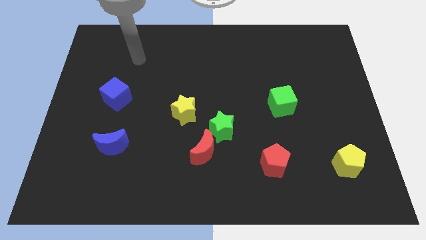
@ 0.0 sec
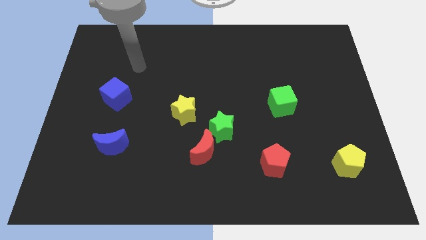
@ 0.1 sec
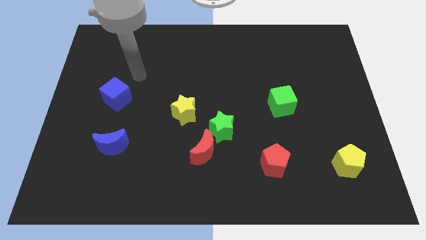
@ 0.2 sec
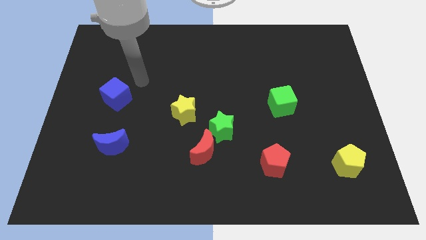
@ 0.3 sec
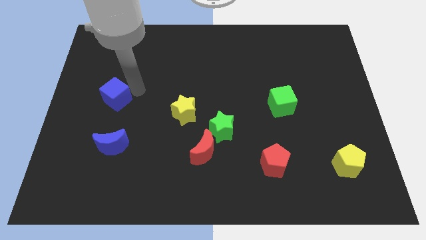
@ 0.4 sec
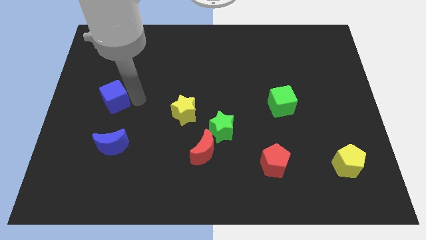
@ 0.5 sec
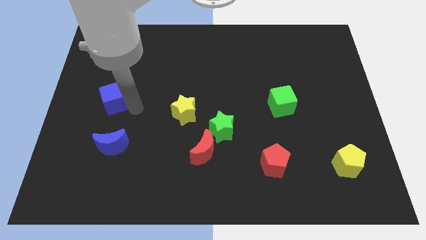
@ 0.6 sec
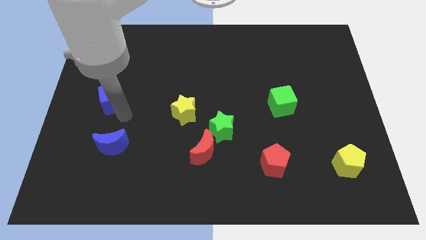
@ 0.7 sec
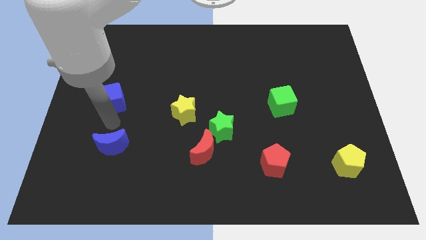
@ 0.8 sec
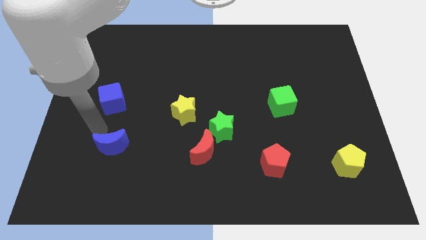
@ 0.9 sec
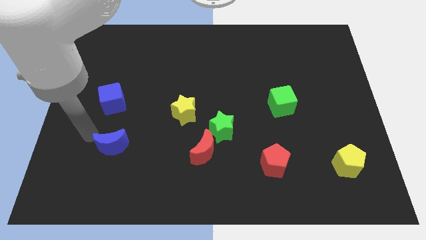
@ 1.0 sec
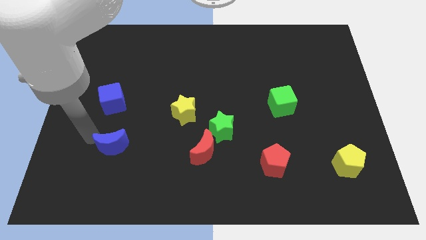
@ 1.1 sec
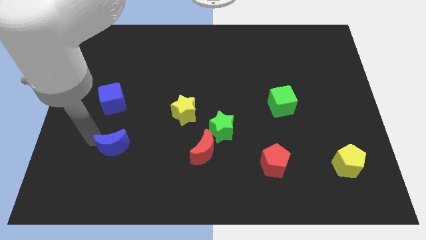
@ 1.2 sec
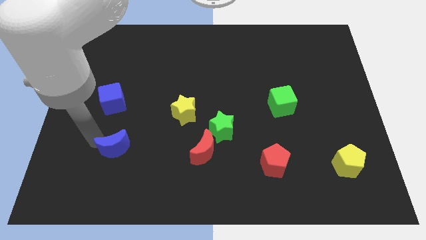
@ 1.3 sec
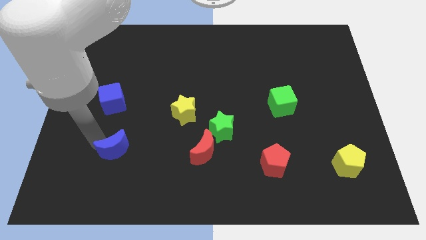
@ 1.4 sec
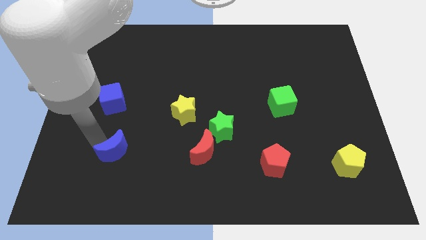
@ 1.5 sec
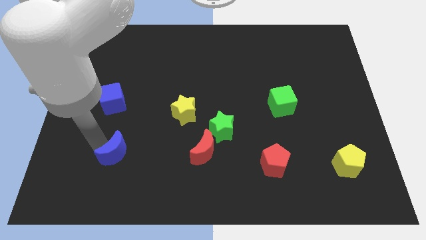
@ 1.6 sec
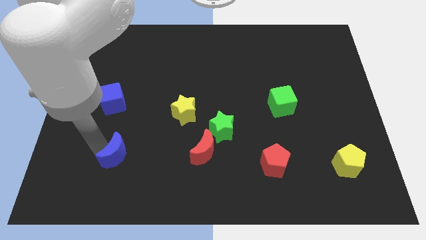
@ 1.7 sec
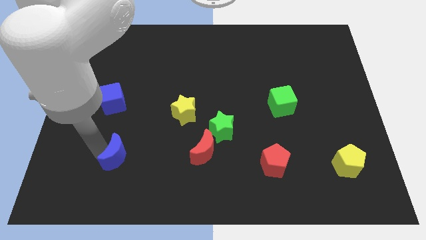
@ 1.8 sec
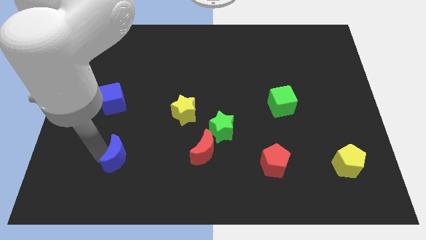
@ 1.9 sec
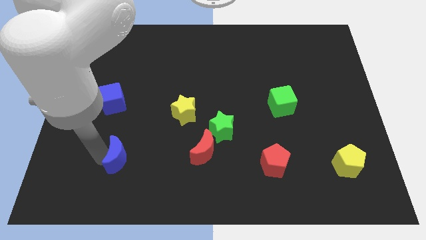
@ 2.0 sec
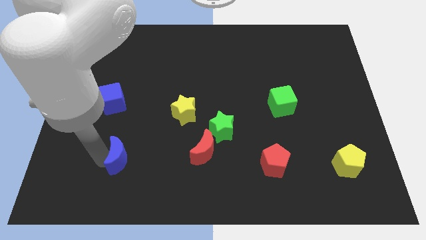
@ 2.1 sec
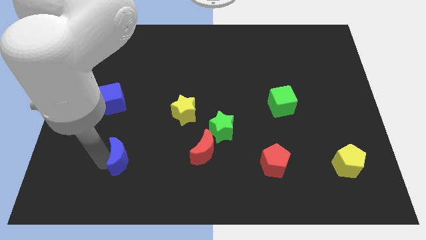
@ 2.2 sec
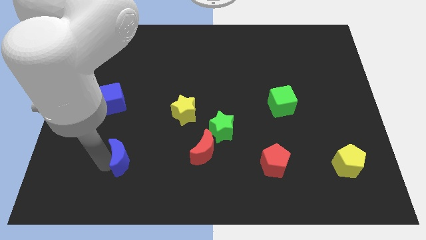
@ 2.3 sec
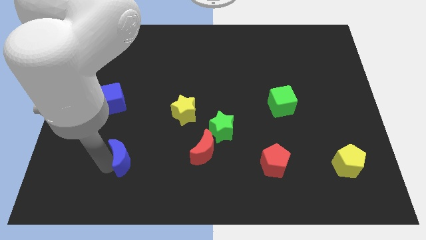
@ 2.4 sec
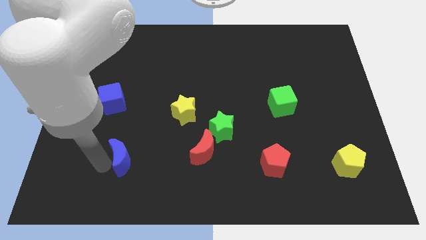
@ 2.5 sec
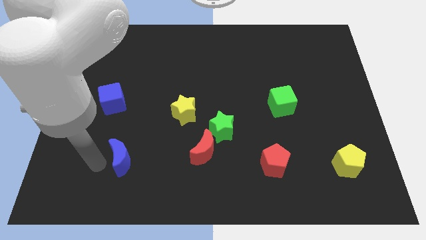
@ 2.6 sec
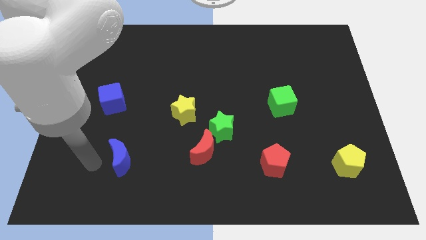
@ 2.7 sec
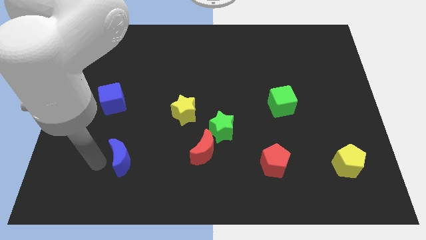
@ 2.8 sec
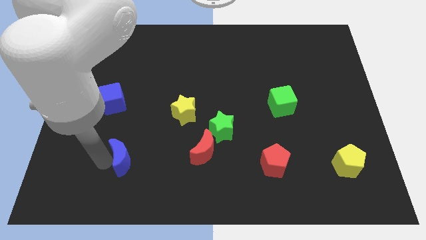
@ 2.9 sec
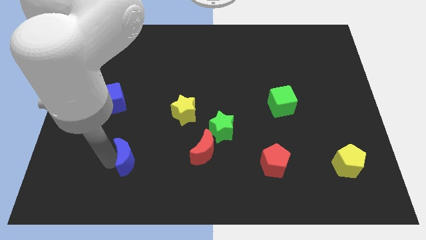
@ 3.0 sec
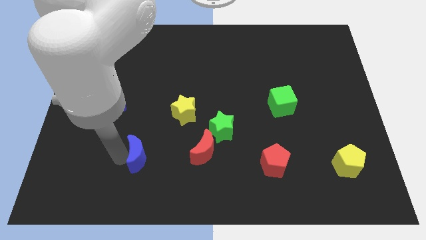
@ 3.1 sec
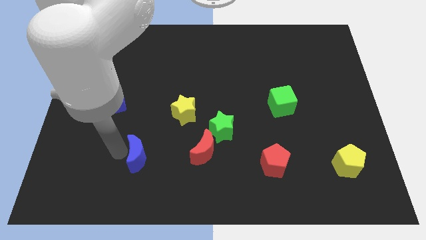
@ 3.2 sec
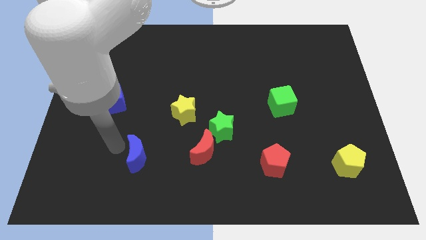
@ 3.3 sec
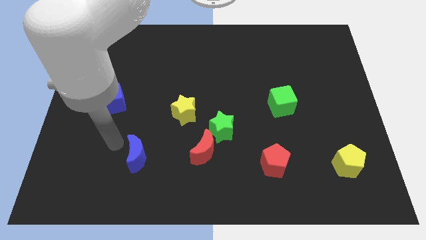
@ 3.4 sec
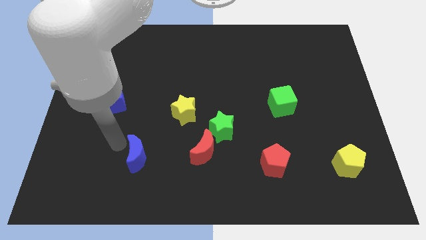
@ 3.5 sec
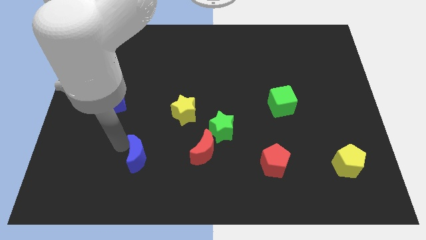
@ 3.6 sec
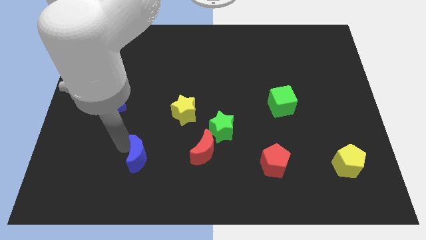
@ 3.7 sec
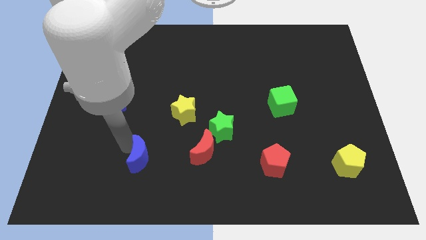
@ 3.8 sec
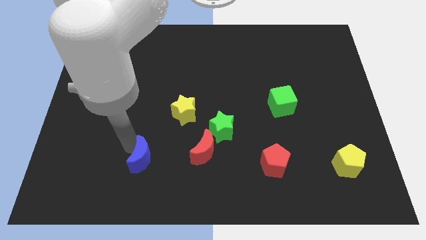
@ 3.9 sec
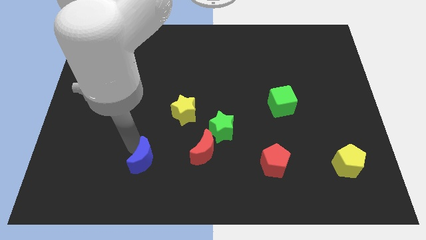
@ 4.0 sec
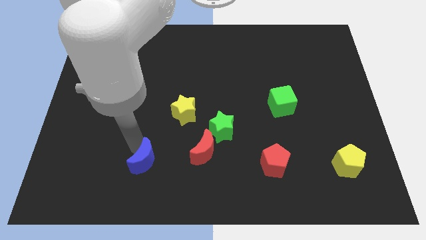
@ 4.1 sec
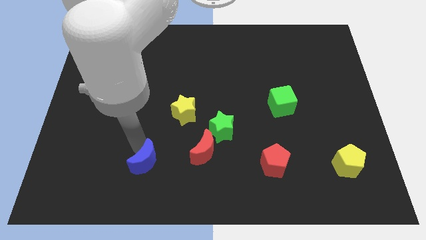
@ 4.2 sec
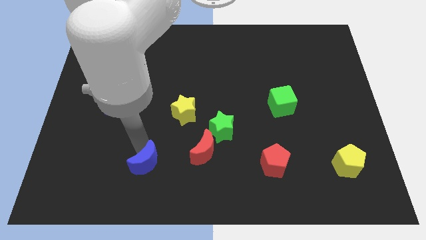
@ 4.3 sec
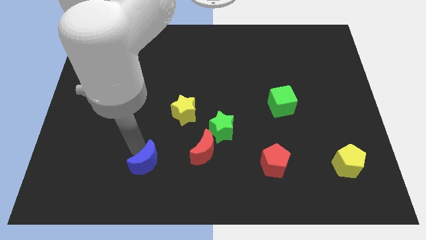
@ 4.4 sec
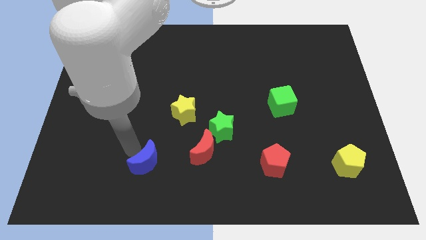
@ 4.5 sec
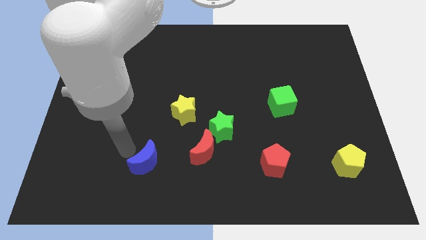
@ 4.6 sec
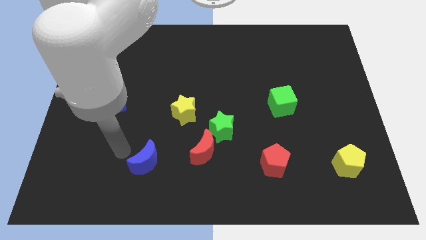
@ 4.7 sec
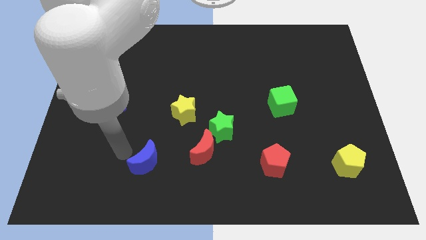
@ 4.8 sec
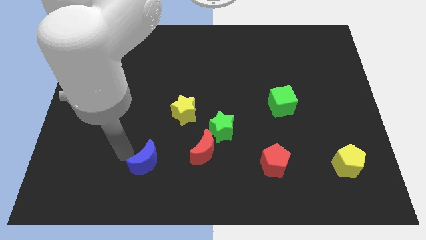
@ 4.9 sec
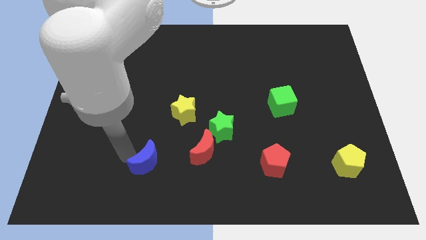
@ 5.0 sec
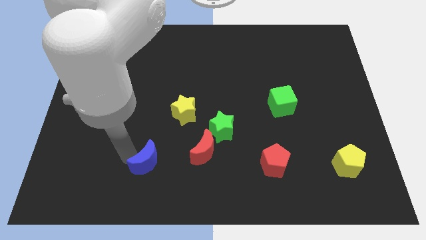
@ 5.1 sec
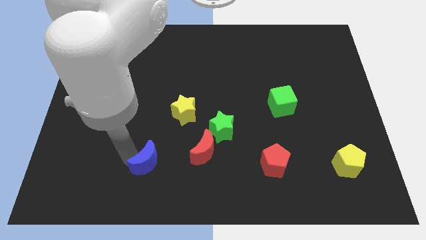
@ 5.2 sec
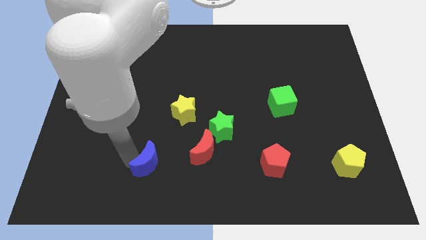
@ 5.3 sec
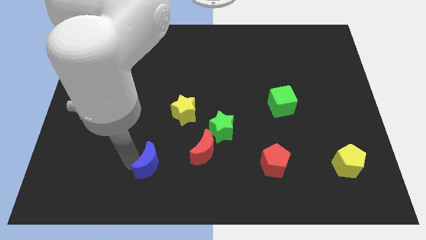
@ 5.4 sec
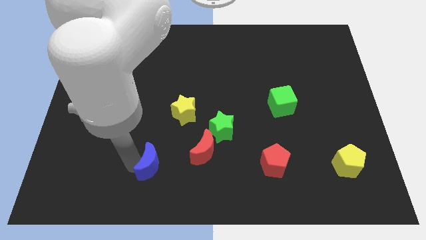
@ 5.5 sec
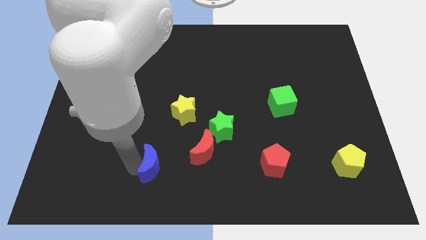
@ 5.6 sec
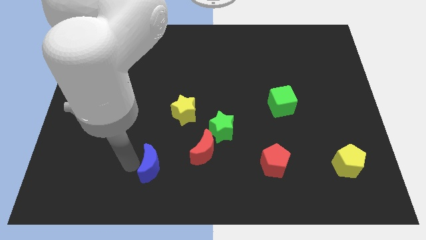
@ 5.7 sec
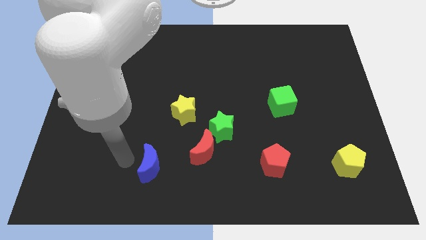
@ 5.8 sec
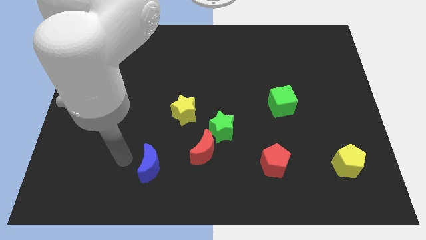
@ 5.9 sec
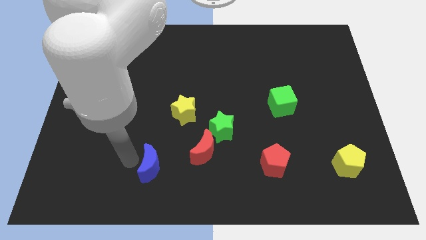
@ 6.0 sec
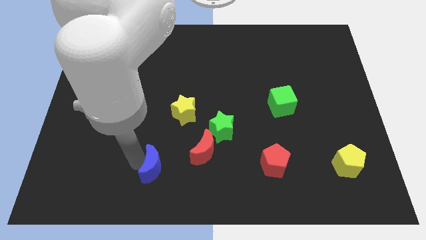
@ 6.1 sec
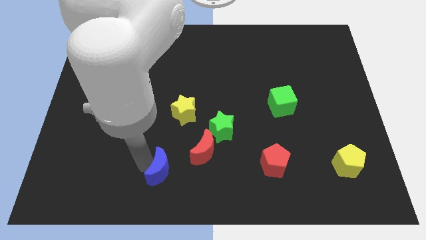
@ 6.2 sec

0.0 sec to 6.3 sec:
slide the blue moon to the bottom left side of the red moon
